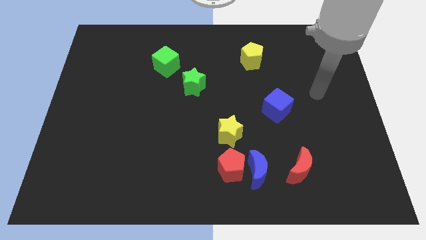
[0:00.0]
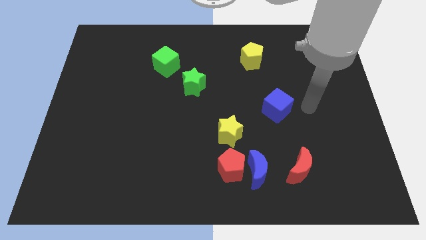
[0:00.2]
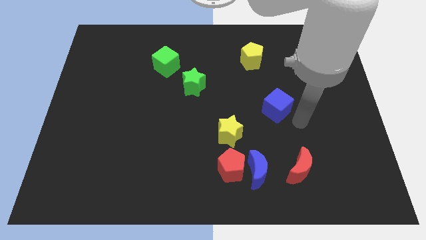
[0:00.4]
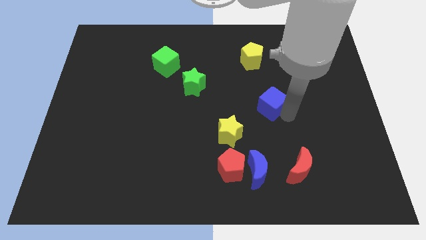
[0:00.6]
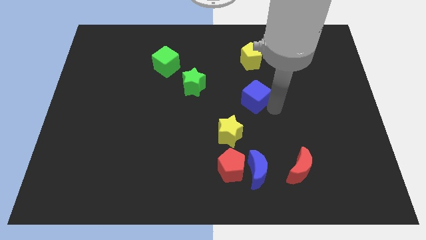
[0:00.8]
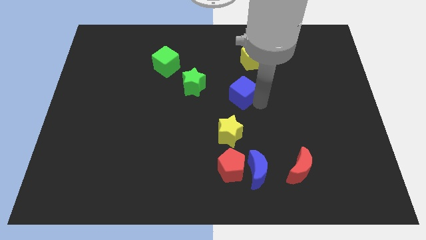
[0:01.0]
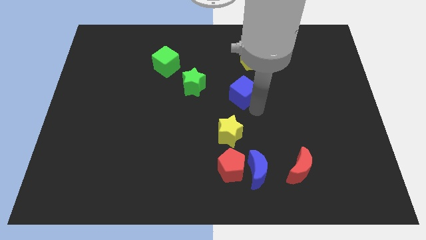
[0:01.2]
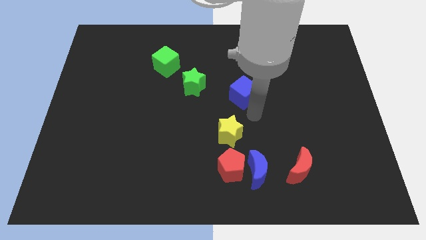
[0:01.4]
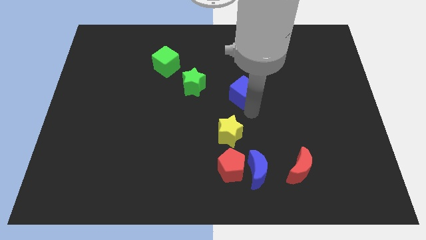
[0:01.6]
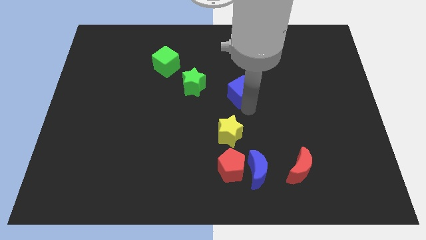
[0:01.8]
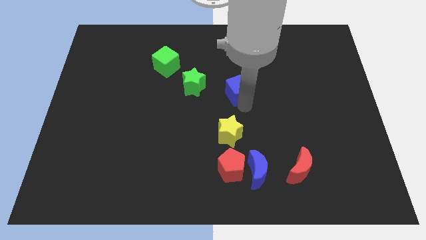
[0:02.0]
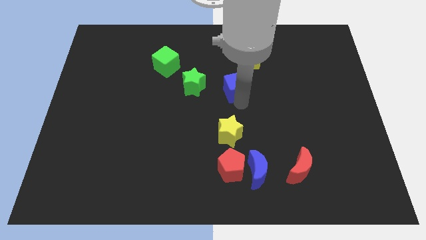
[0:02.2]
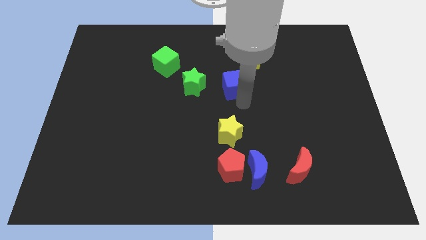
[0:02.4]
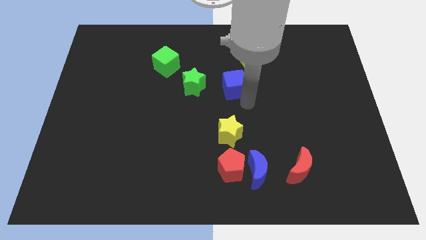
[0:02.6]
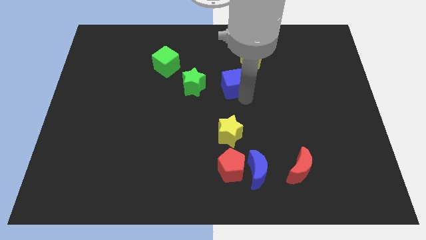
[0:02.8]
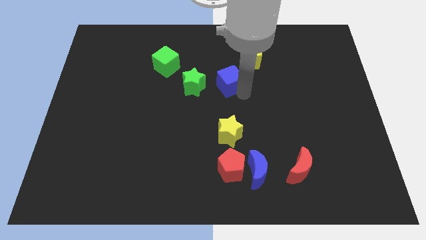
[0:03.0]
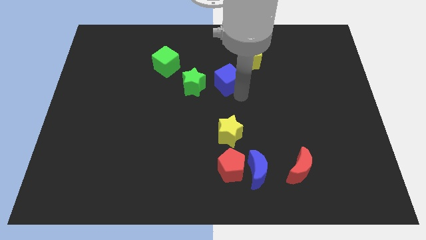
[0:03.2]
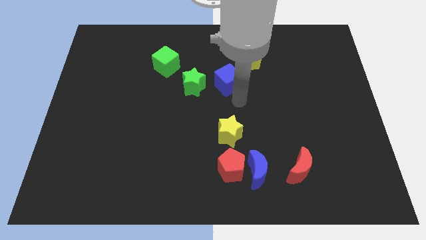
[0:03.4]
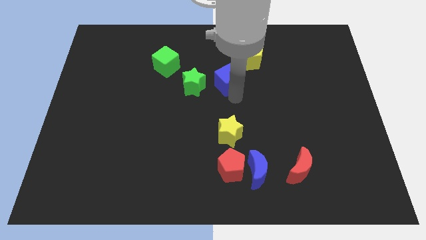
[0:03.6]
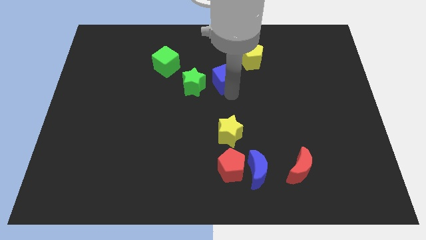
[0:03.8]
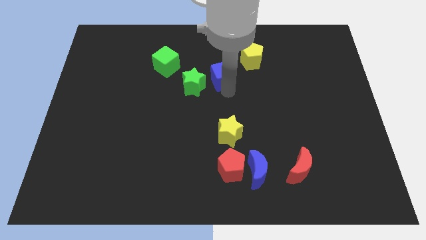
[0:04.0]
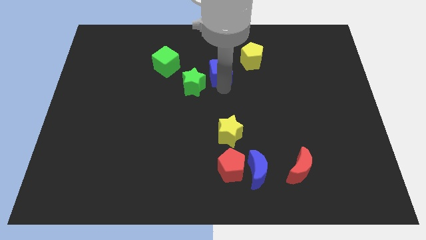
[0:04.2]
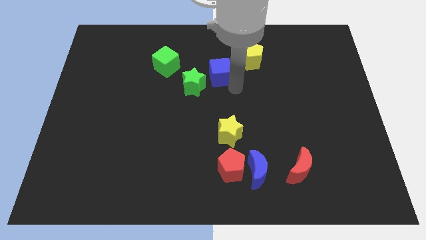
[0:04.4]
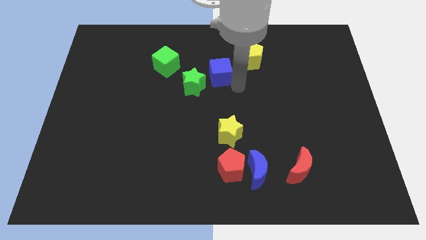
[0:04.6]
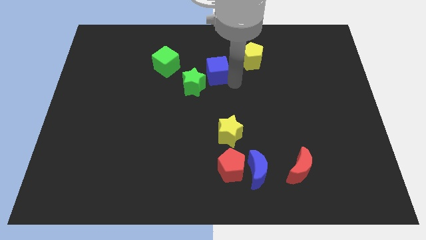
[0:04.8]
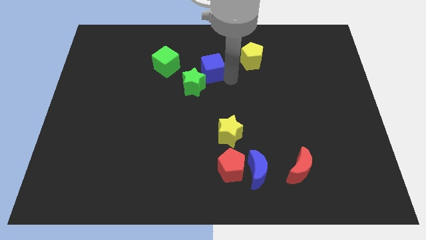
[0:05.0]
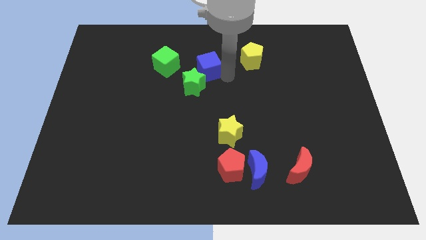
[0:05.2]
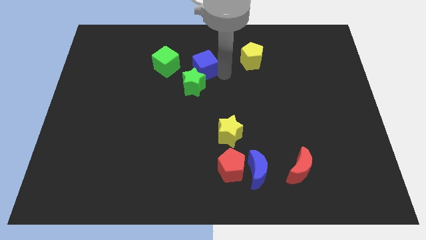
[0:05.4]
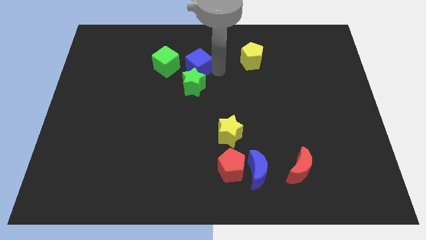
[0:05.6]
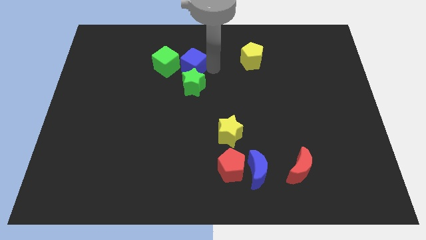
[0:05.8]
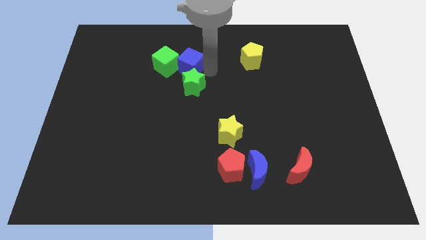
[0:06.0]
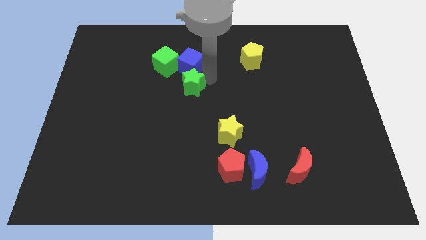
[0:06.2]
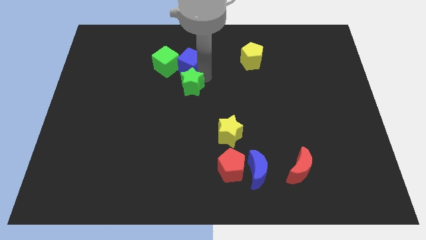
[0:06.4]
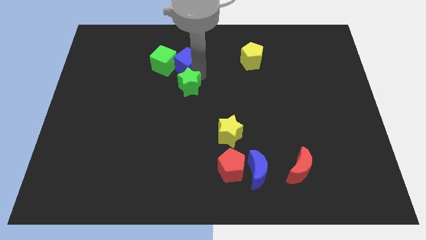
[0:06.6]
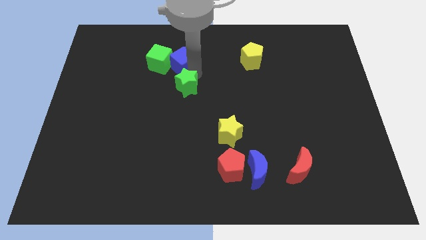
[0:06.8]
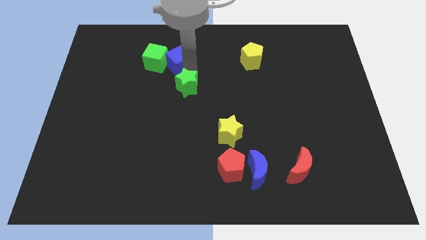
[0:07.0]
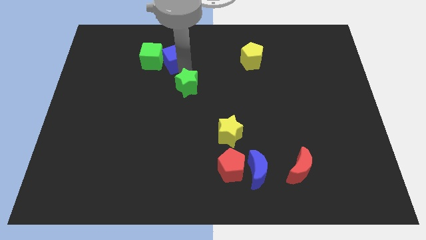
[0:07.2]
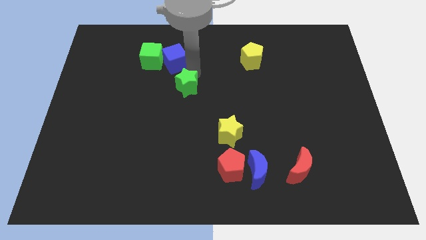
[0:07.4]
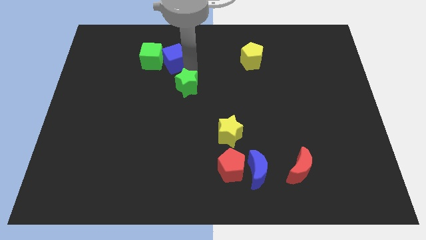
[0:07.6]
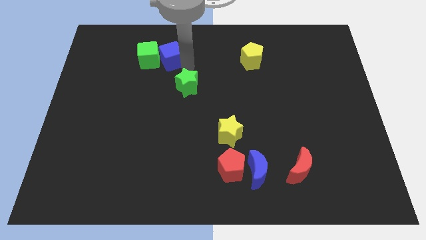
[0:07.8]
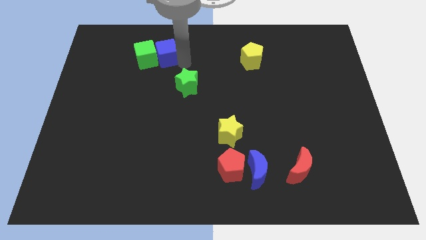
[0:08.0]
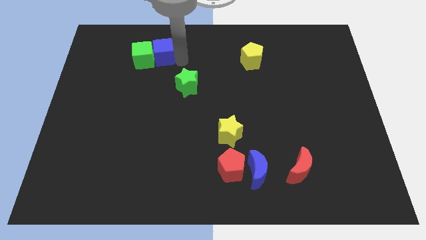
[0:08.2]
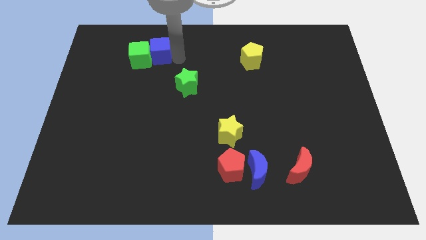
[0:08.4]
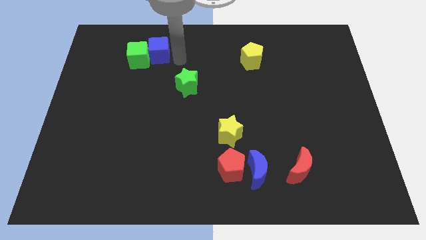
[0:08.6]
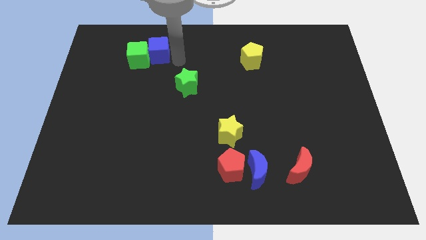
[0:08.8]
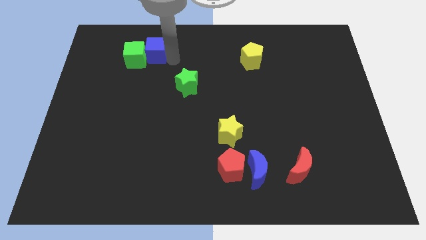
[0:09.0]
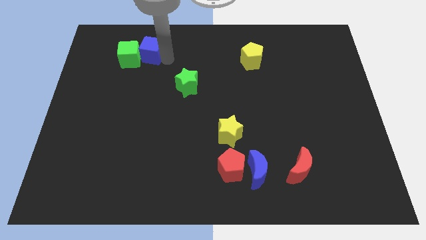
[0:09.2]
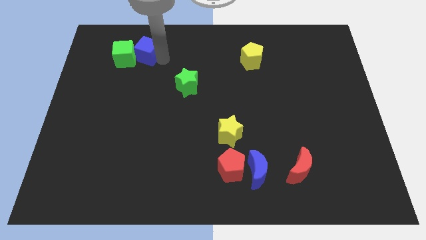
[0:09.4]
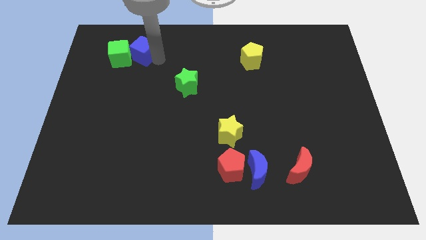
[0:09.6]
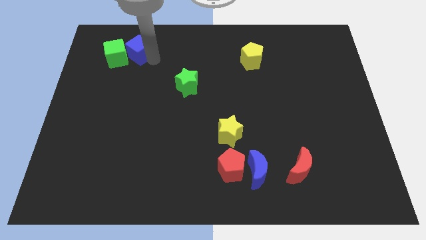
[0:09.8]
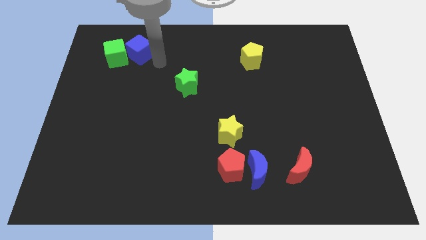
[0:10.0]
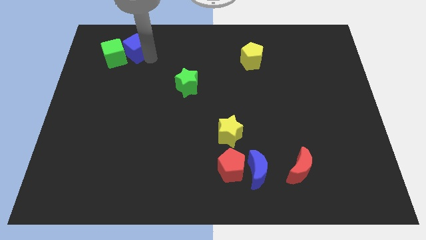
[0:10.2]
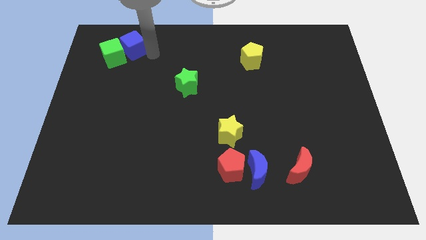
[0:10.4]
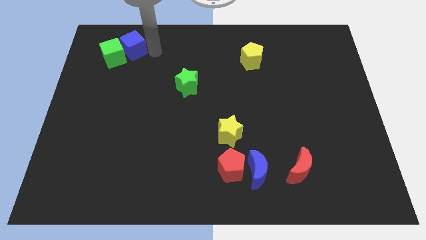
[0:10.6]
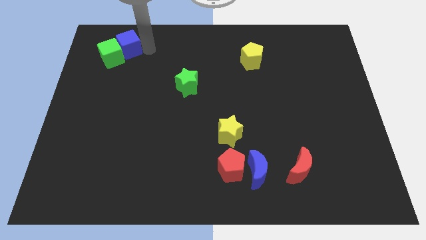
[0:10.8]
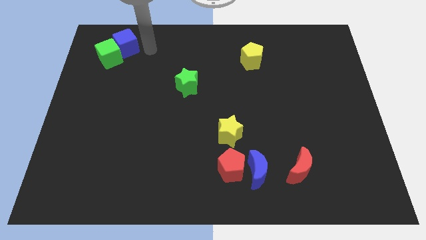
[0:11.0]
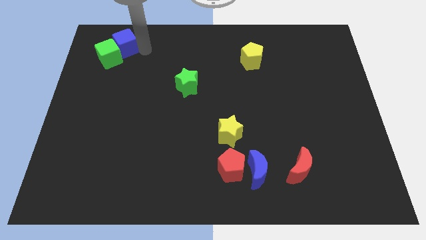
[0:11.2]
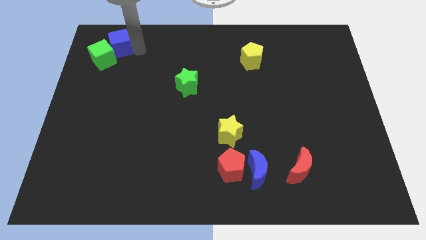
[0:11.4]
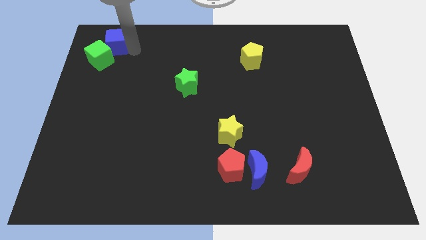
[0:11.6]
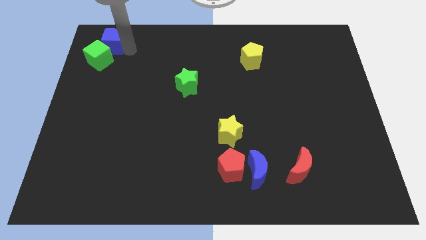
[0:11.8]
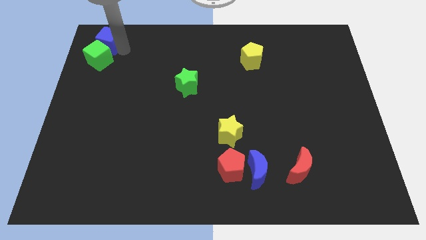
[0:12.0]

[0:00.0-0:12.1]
slide the blue cube to the upper left corner
